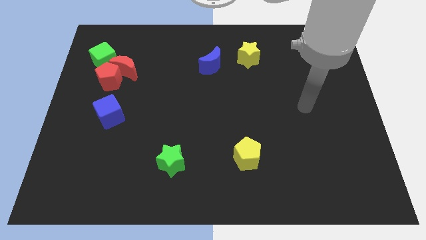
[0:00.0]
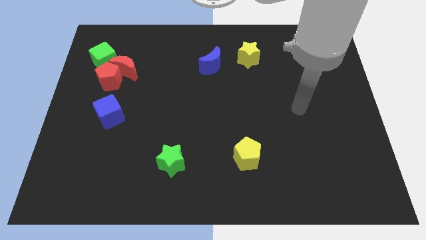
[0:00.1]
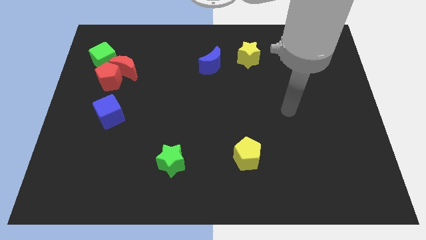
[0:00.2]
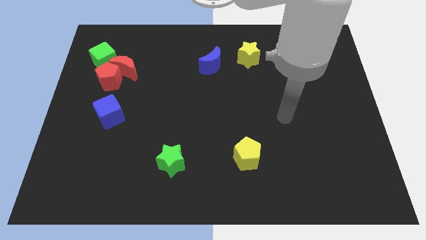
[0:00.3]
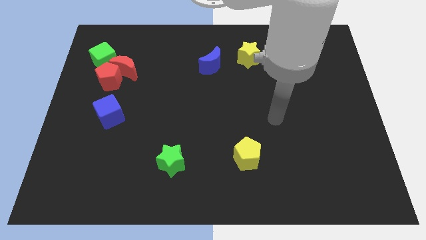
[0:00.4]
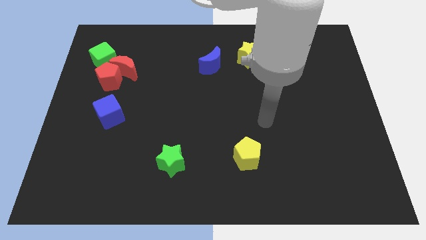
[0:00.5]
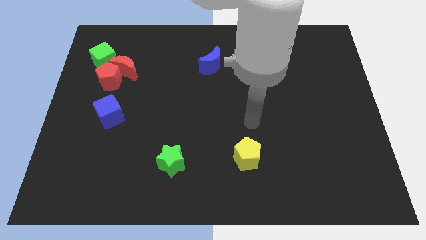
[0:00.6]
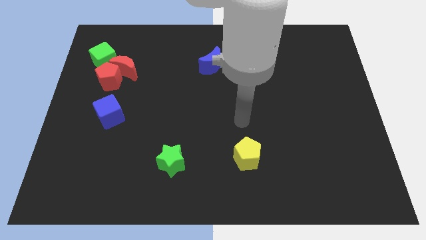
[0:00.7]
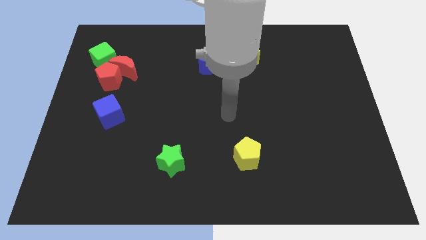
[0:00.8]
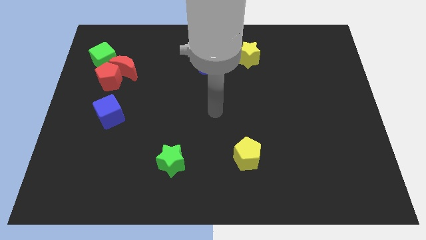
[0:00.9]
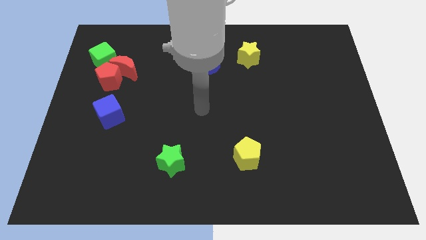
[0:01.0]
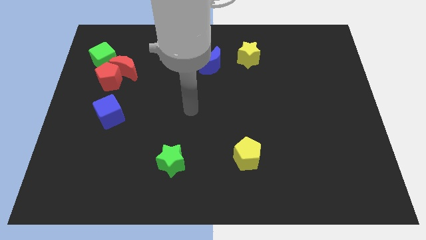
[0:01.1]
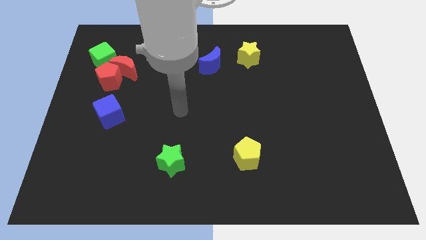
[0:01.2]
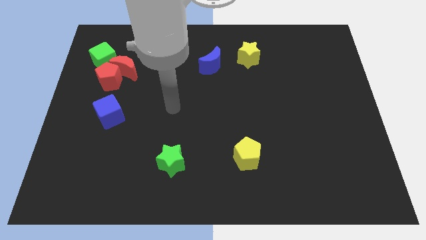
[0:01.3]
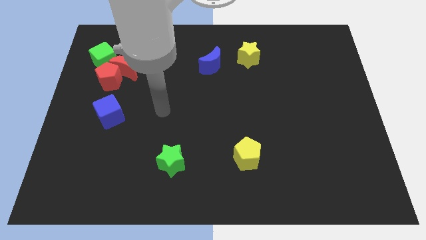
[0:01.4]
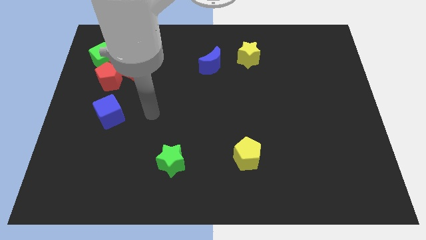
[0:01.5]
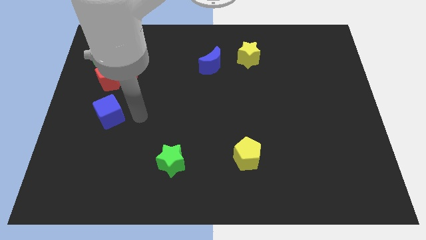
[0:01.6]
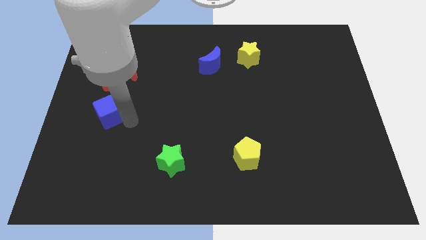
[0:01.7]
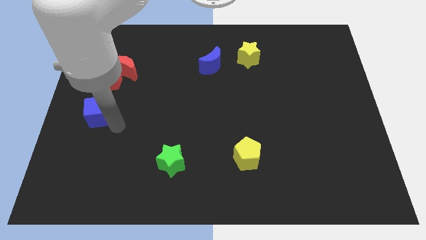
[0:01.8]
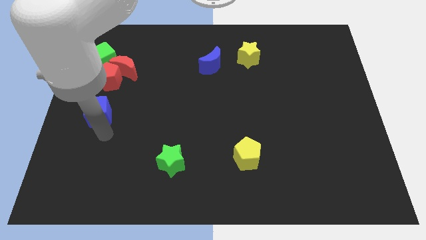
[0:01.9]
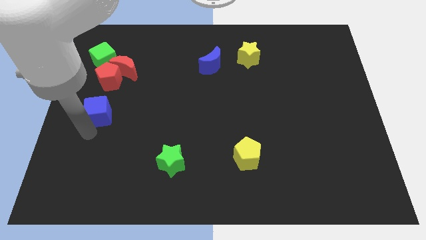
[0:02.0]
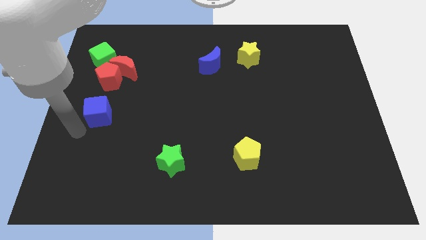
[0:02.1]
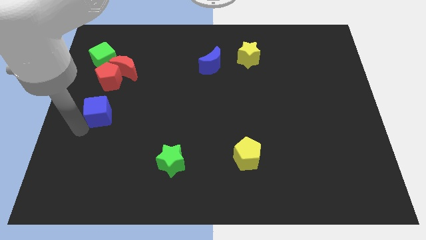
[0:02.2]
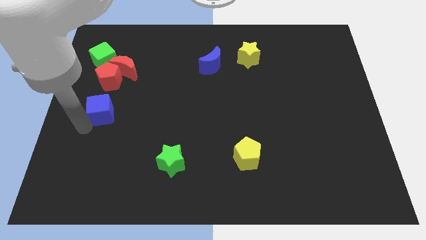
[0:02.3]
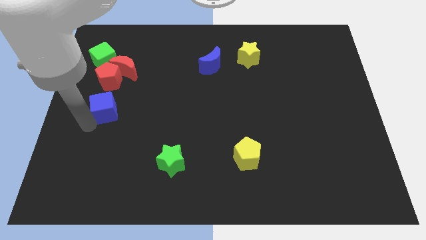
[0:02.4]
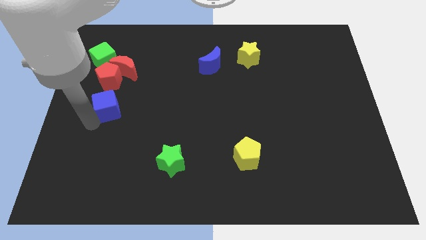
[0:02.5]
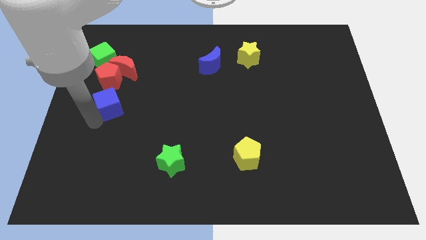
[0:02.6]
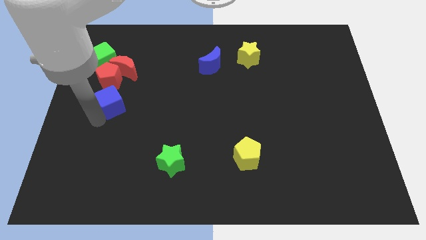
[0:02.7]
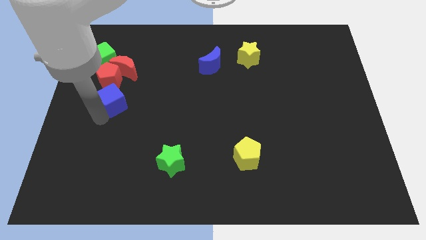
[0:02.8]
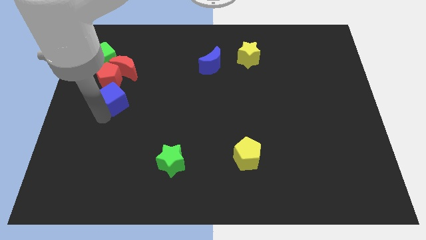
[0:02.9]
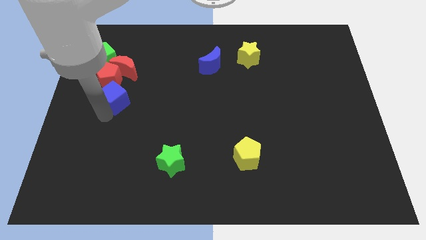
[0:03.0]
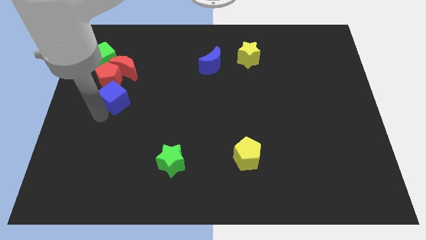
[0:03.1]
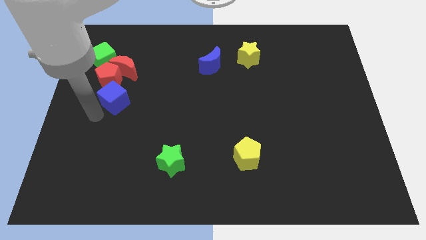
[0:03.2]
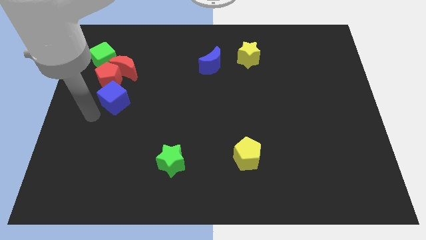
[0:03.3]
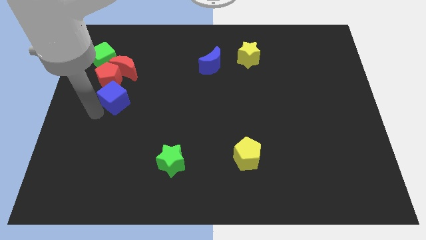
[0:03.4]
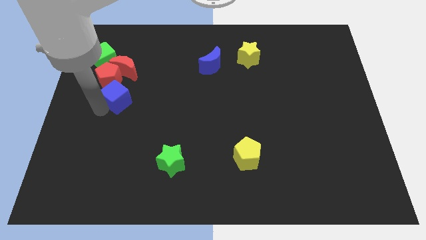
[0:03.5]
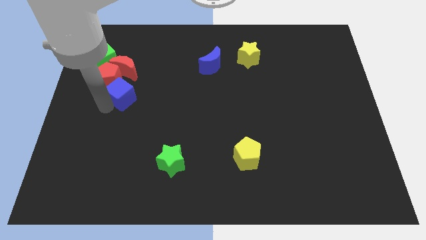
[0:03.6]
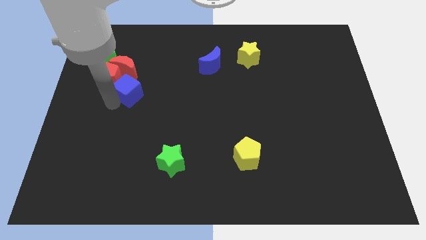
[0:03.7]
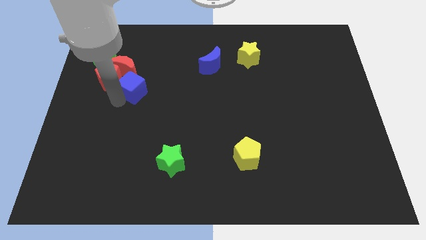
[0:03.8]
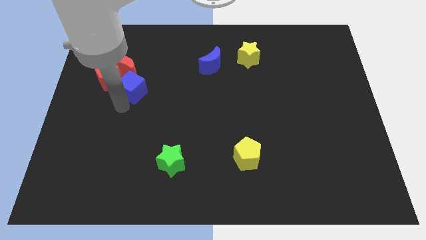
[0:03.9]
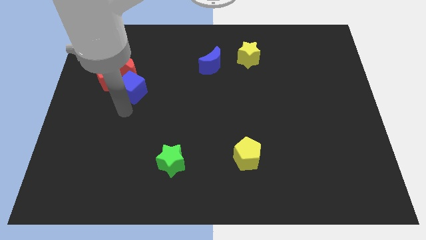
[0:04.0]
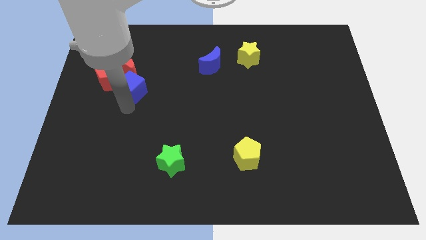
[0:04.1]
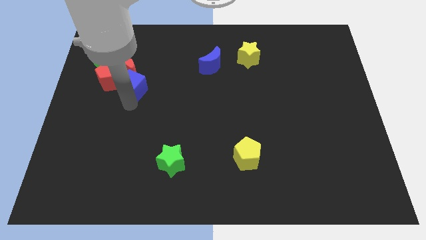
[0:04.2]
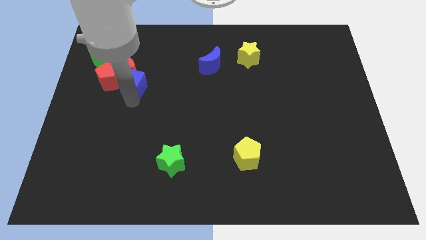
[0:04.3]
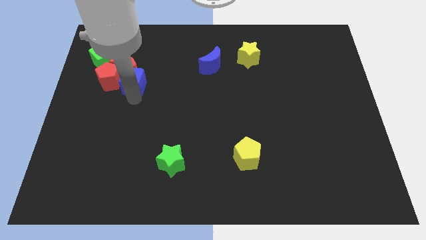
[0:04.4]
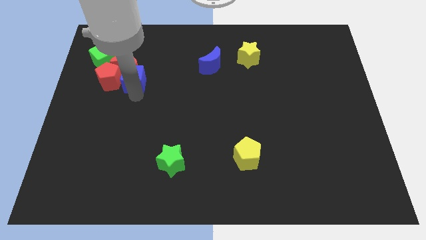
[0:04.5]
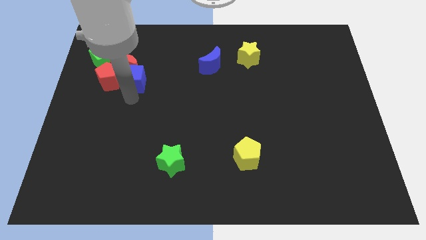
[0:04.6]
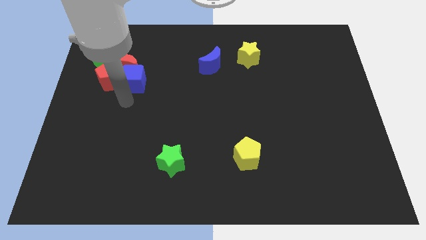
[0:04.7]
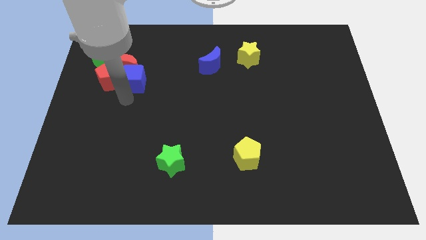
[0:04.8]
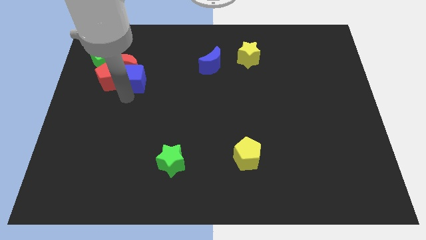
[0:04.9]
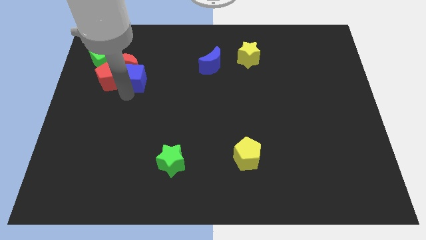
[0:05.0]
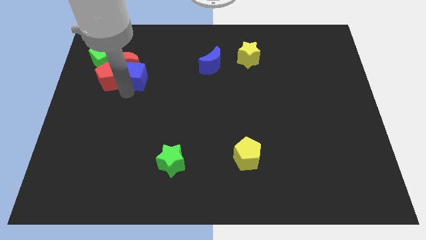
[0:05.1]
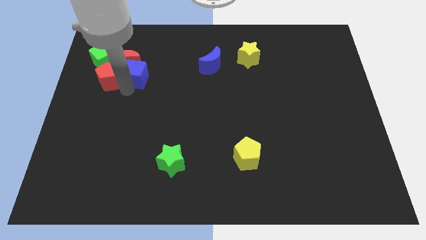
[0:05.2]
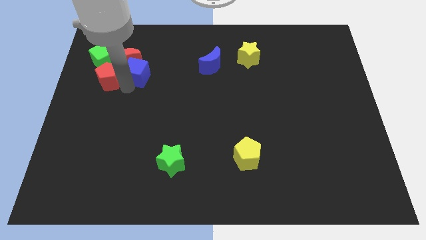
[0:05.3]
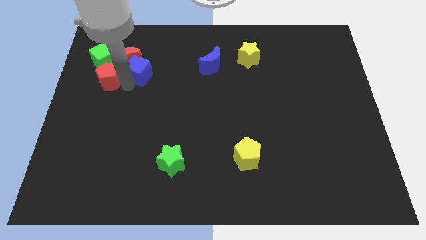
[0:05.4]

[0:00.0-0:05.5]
push the blue cube to the right side of the green cube

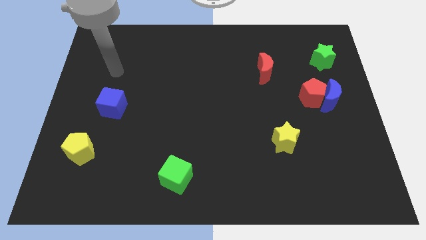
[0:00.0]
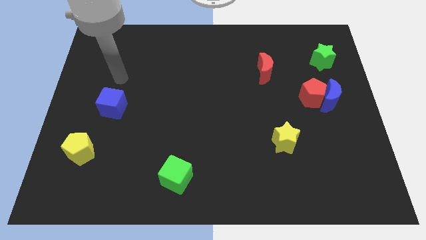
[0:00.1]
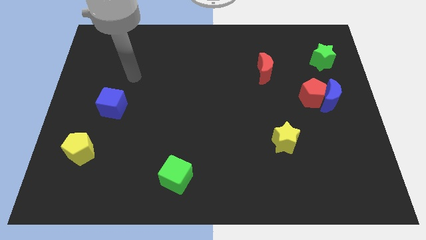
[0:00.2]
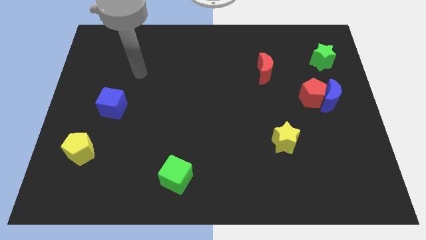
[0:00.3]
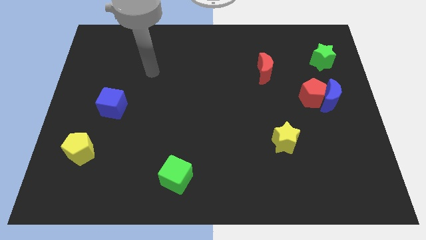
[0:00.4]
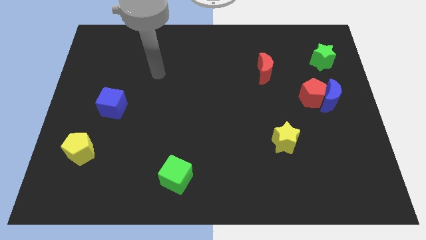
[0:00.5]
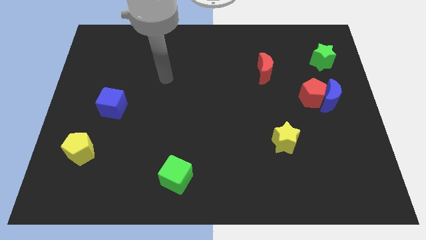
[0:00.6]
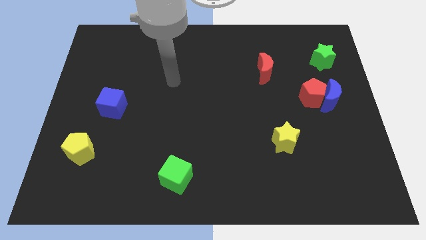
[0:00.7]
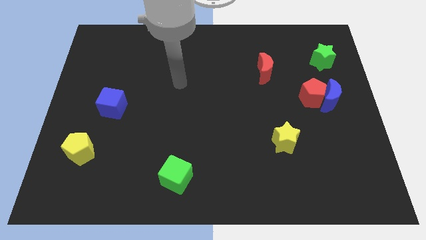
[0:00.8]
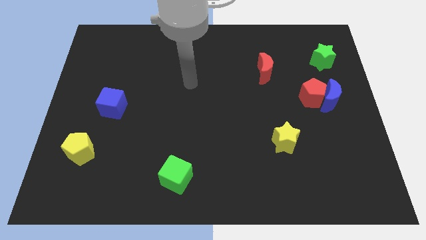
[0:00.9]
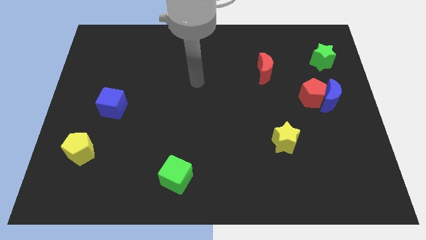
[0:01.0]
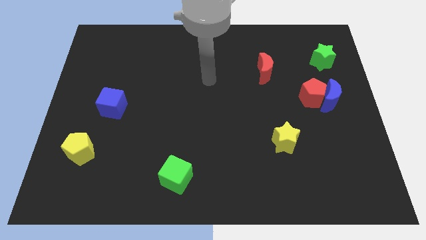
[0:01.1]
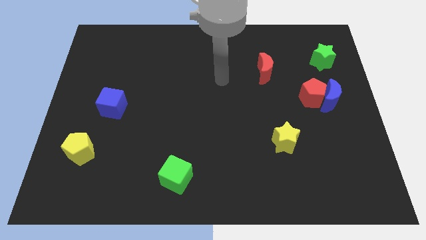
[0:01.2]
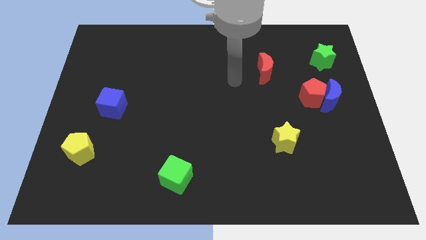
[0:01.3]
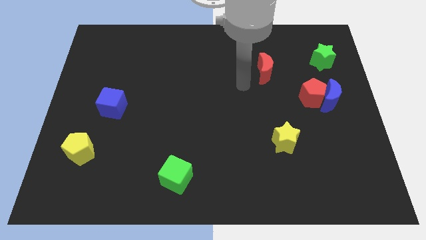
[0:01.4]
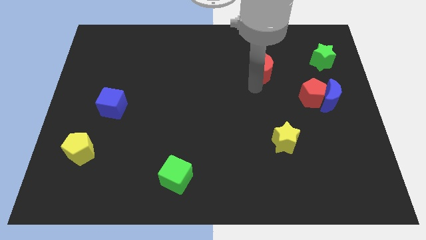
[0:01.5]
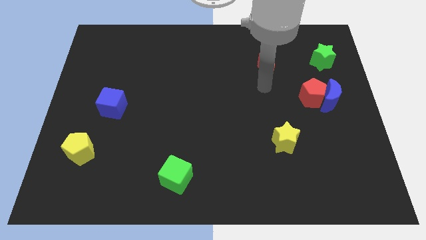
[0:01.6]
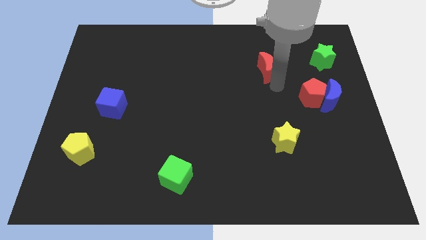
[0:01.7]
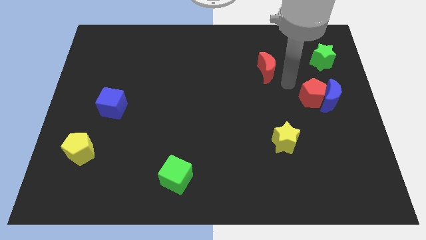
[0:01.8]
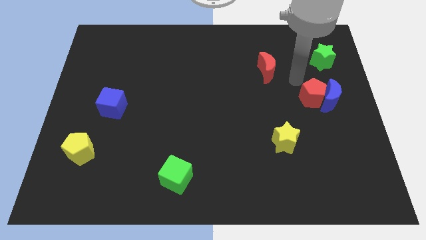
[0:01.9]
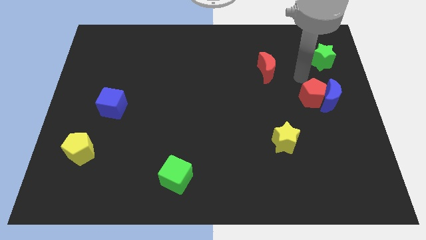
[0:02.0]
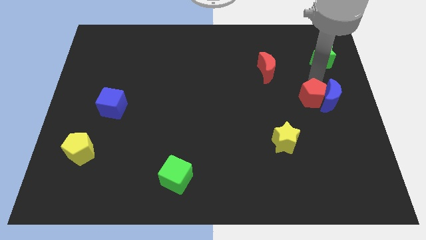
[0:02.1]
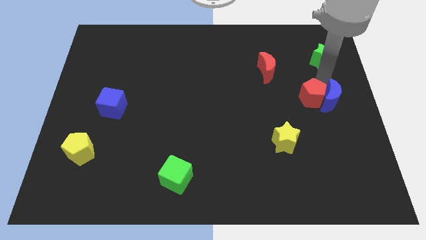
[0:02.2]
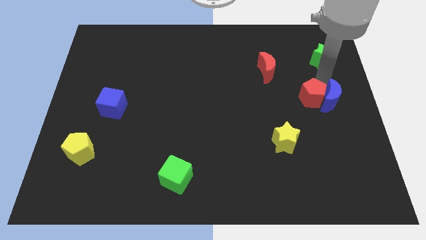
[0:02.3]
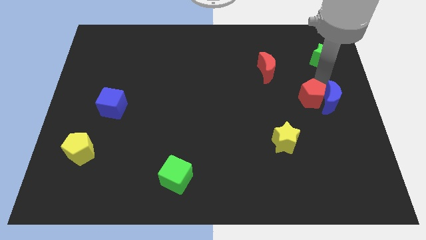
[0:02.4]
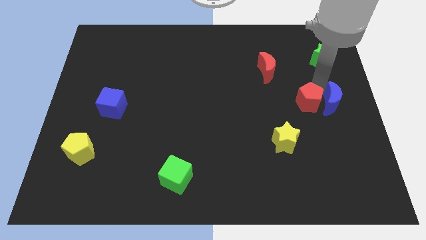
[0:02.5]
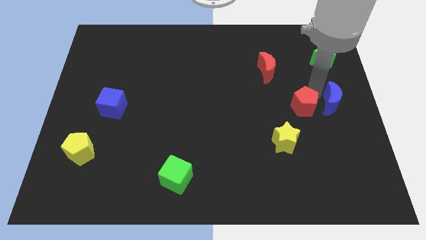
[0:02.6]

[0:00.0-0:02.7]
slide the red pentagon to the top right of the yellow star
